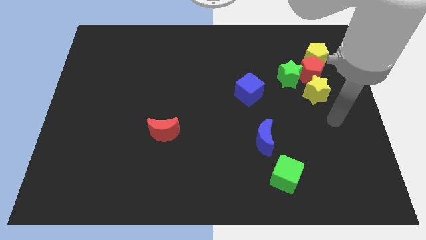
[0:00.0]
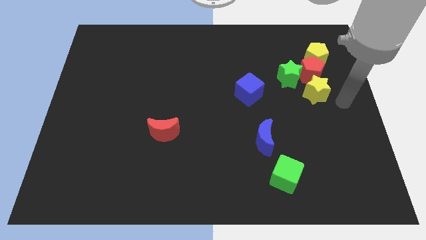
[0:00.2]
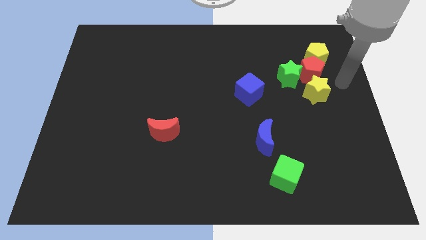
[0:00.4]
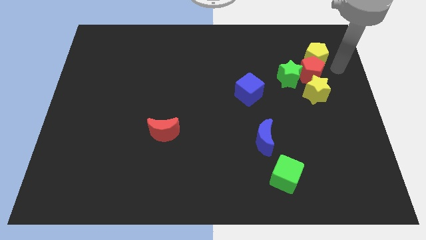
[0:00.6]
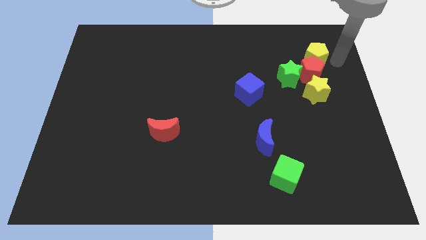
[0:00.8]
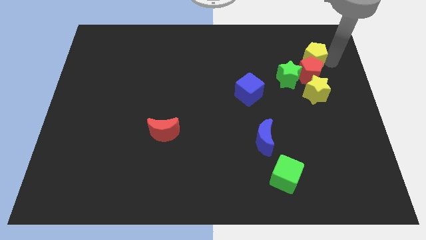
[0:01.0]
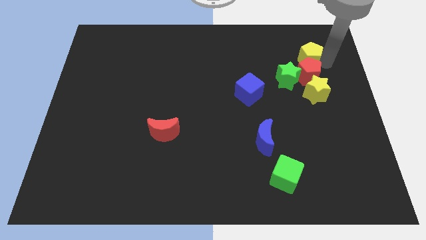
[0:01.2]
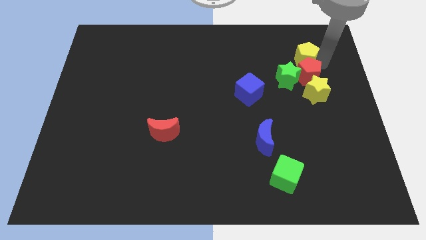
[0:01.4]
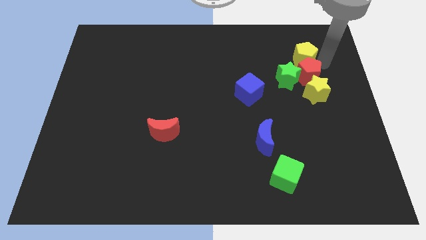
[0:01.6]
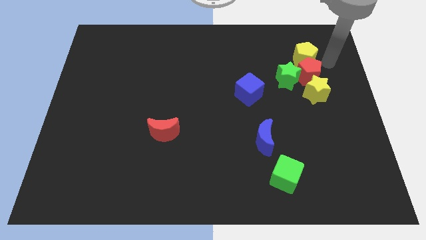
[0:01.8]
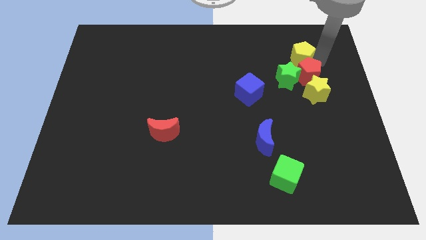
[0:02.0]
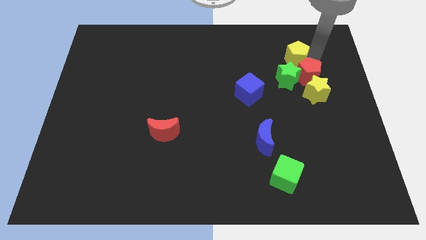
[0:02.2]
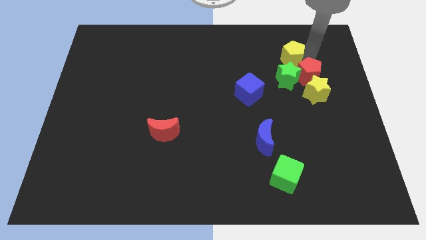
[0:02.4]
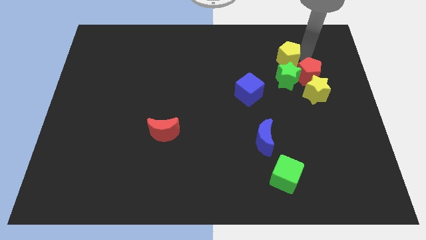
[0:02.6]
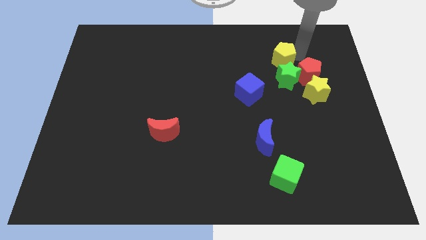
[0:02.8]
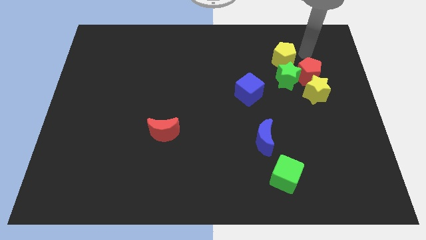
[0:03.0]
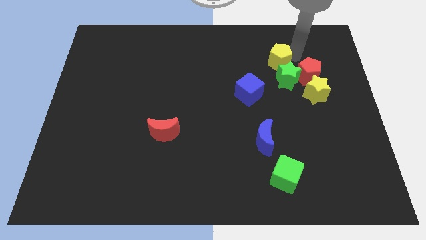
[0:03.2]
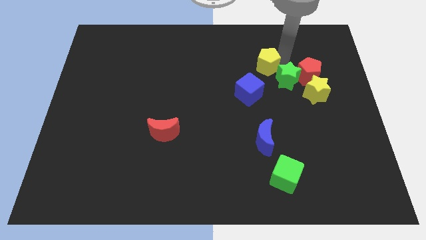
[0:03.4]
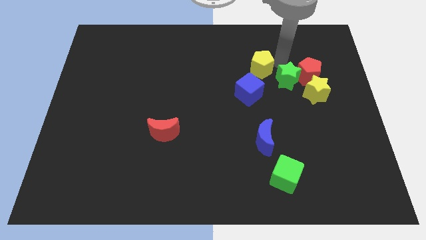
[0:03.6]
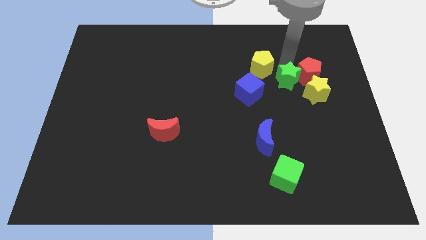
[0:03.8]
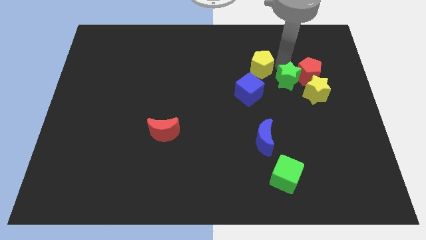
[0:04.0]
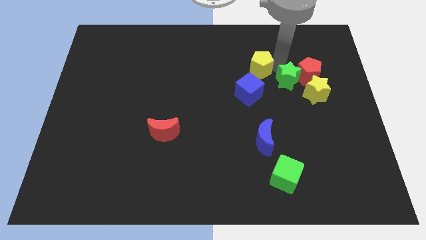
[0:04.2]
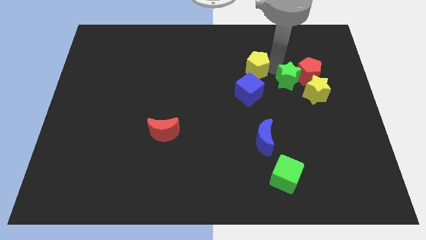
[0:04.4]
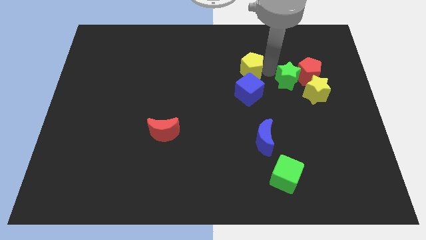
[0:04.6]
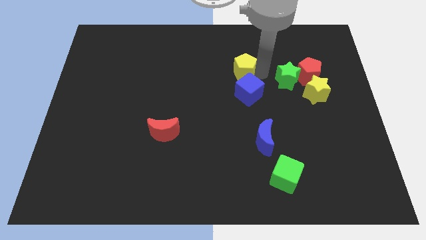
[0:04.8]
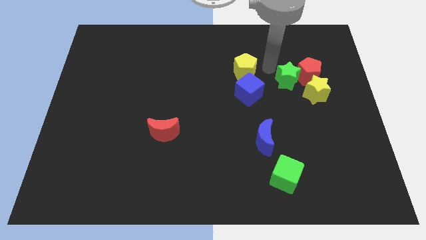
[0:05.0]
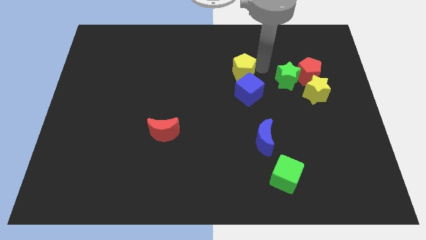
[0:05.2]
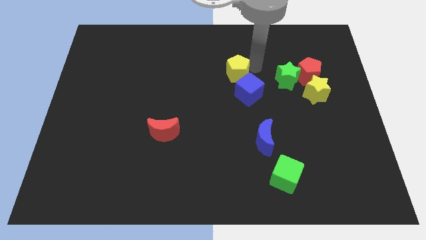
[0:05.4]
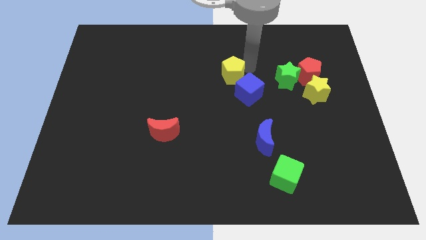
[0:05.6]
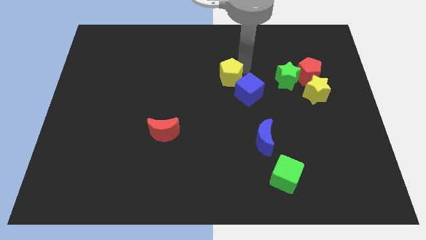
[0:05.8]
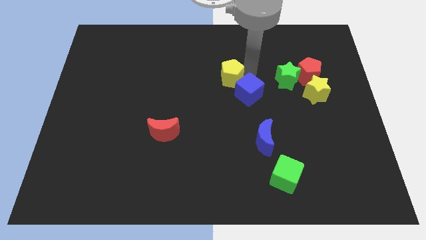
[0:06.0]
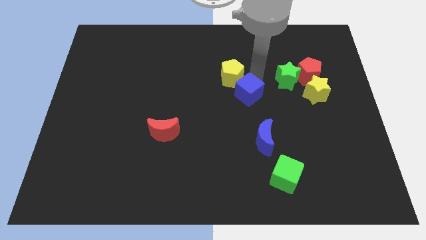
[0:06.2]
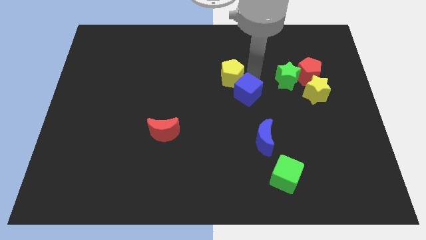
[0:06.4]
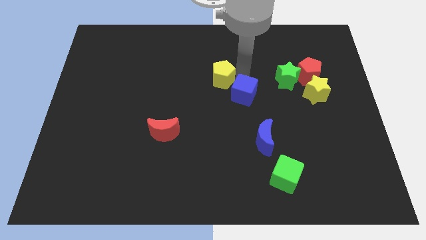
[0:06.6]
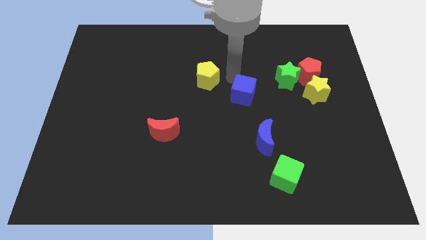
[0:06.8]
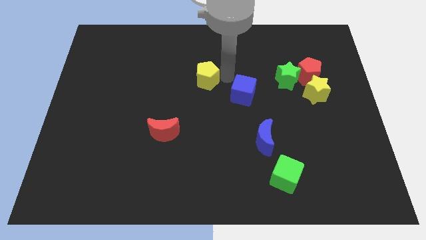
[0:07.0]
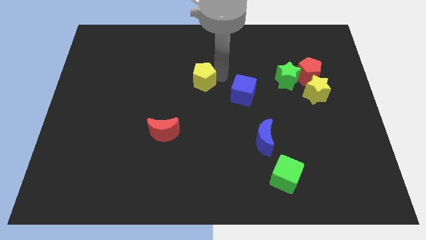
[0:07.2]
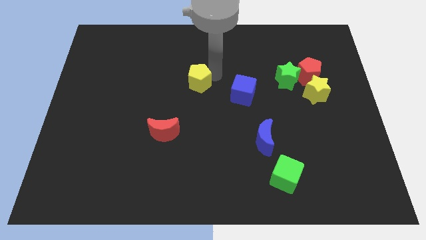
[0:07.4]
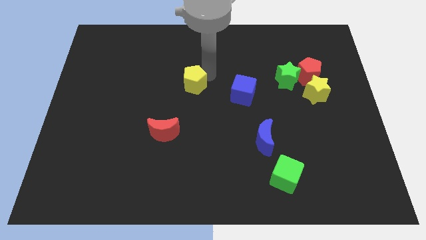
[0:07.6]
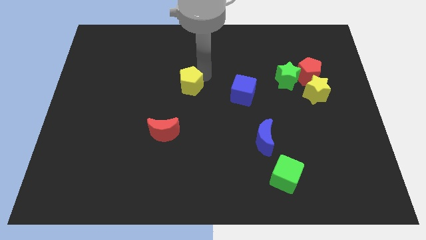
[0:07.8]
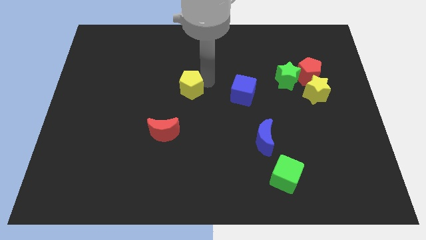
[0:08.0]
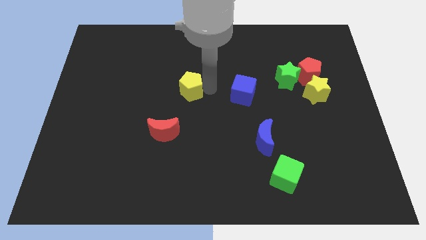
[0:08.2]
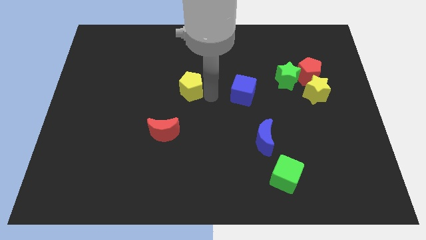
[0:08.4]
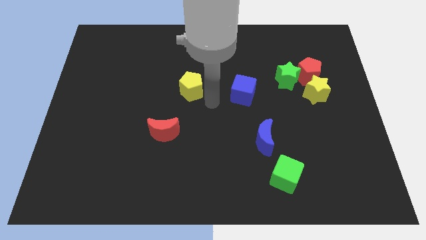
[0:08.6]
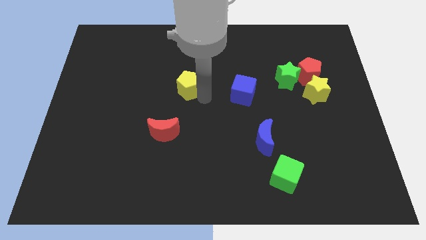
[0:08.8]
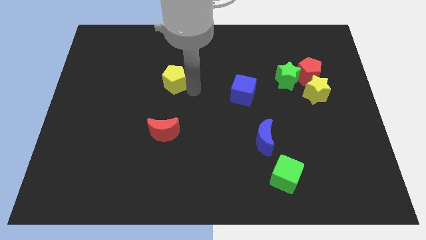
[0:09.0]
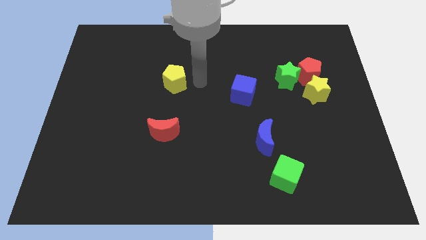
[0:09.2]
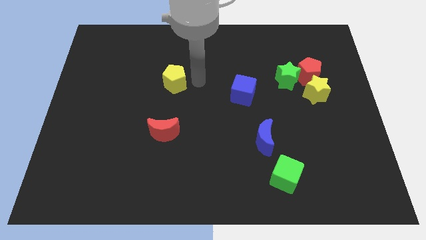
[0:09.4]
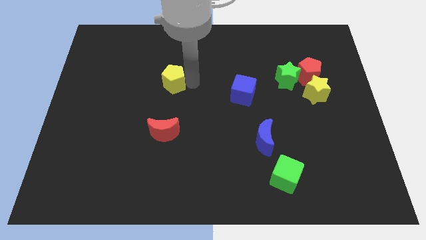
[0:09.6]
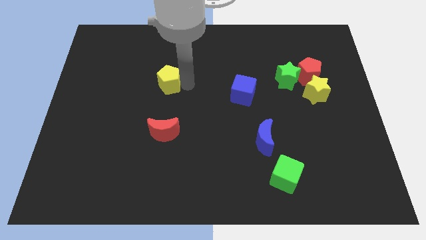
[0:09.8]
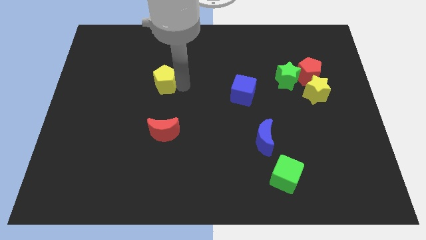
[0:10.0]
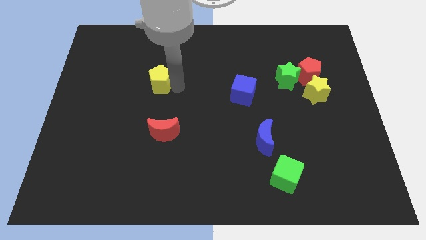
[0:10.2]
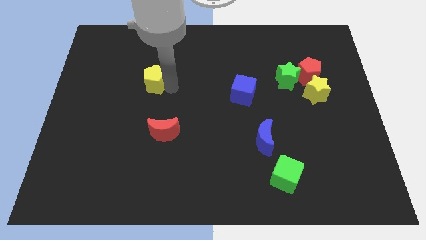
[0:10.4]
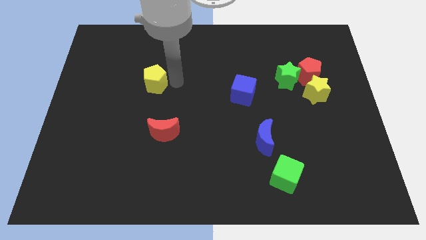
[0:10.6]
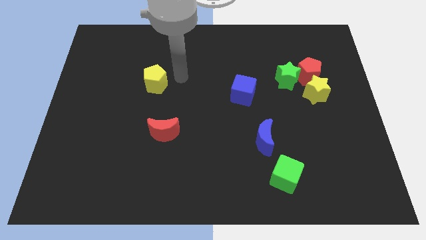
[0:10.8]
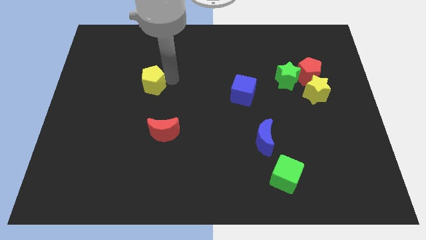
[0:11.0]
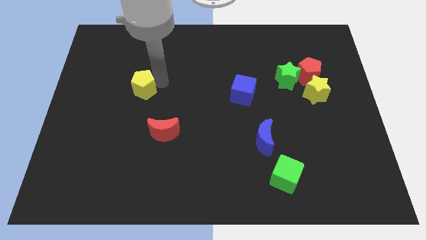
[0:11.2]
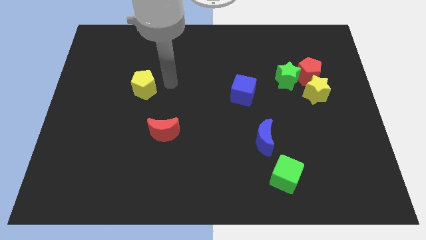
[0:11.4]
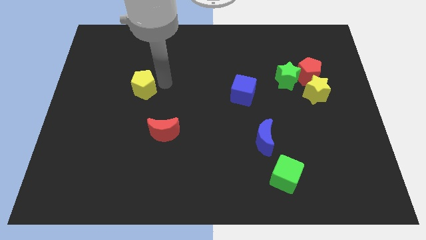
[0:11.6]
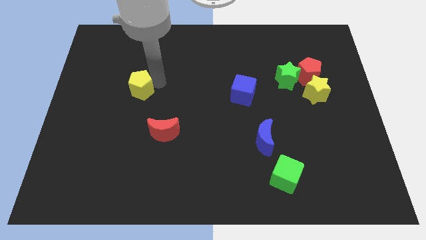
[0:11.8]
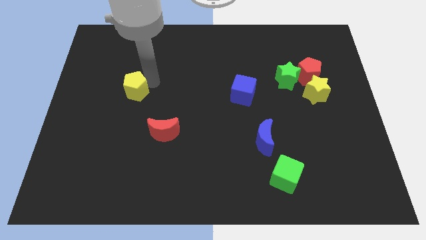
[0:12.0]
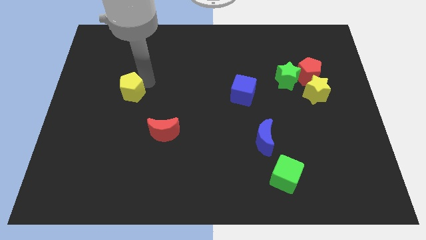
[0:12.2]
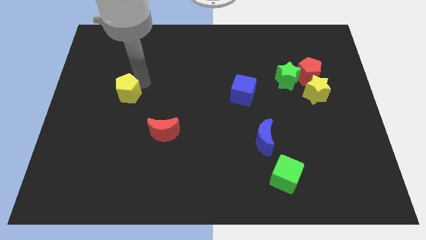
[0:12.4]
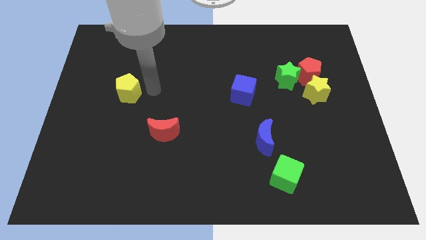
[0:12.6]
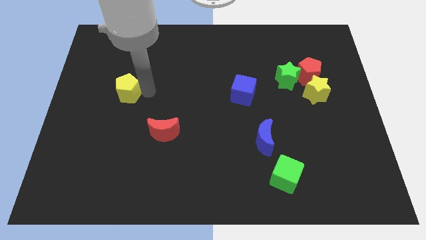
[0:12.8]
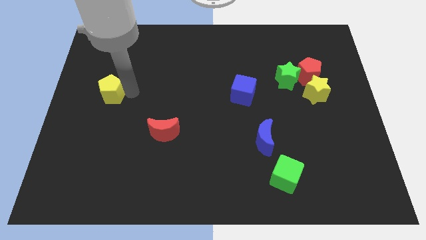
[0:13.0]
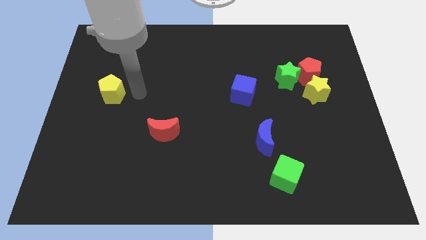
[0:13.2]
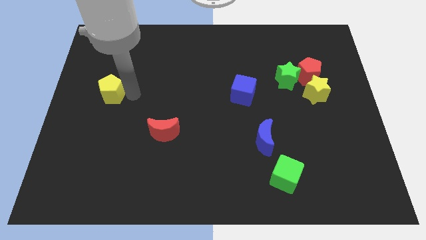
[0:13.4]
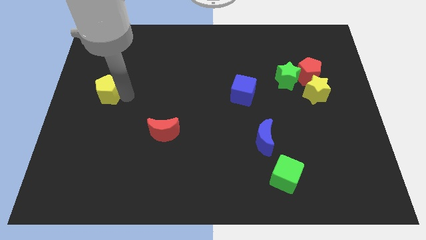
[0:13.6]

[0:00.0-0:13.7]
put the yellow pentagon to the left side of the board
